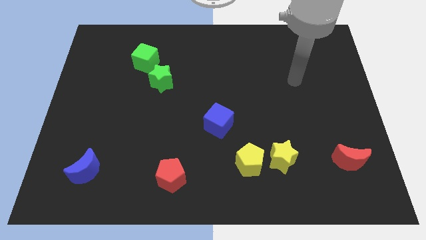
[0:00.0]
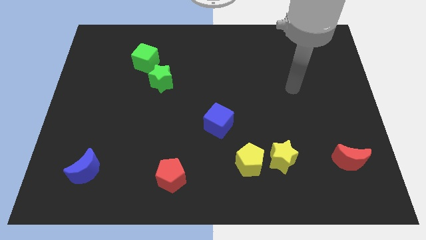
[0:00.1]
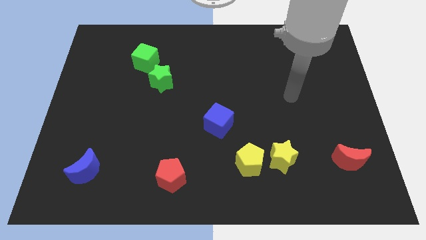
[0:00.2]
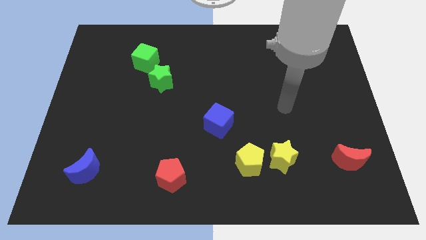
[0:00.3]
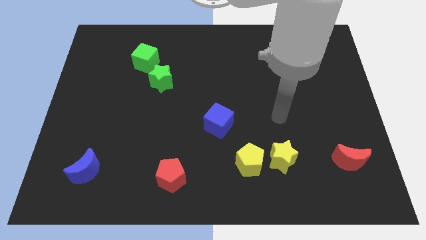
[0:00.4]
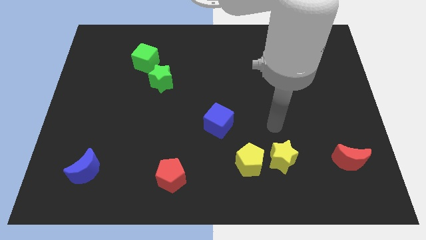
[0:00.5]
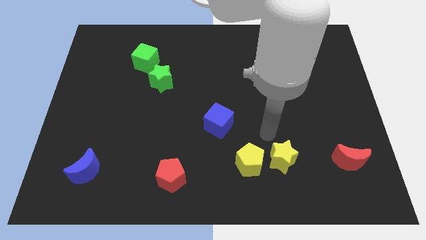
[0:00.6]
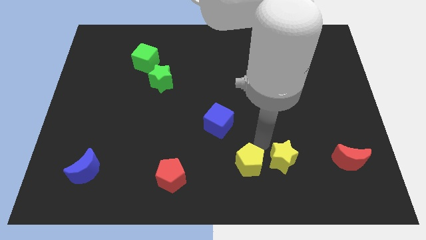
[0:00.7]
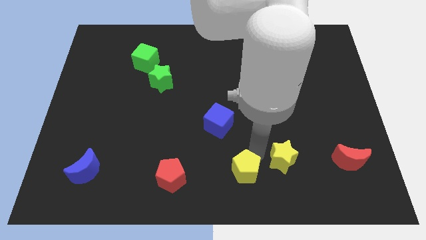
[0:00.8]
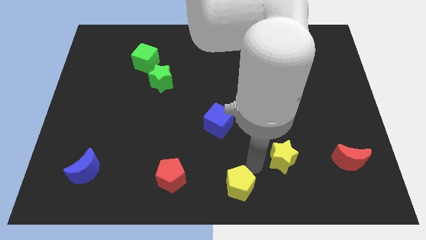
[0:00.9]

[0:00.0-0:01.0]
separate the yellow star from the yellow pentagon

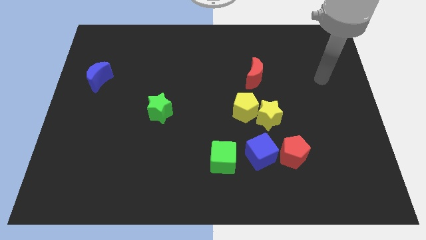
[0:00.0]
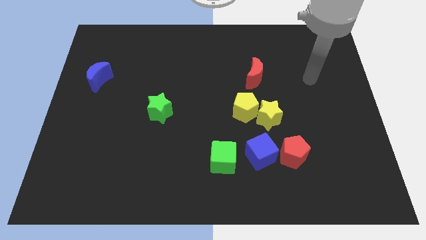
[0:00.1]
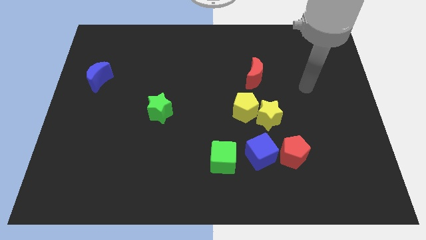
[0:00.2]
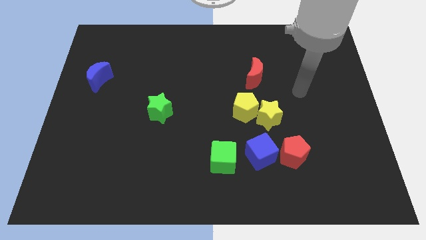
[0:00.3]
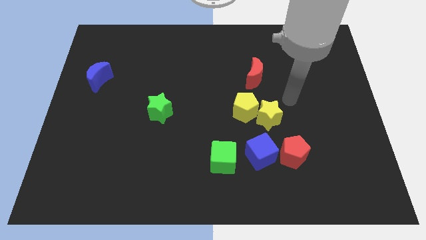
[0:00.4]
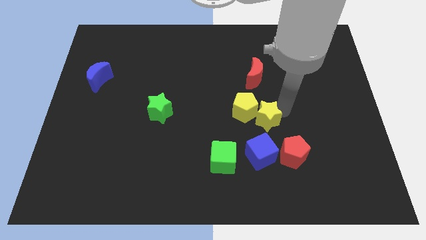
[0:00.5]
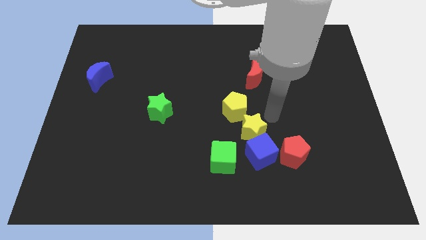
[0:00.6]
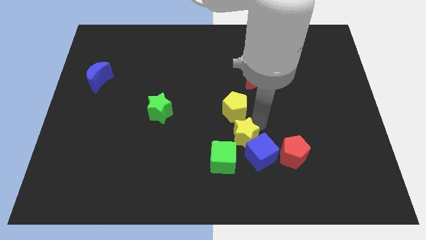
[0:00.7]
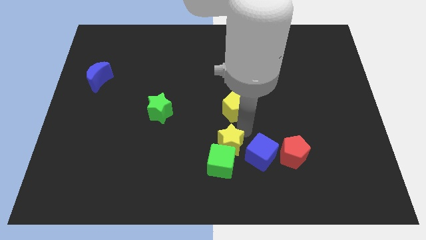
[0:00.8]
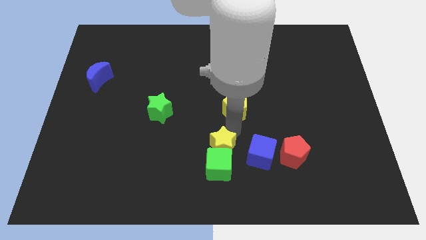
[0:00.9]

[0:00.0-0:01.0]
pull the yellow pentagon apart from the yellow star

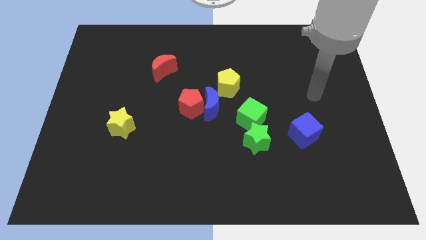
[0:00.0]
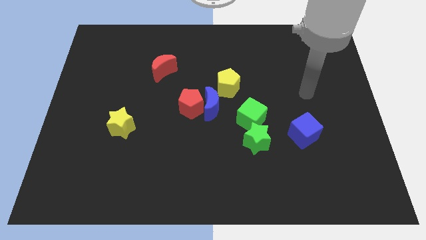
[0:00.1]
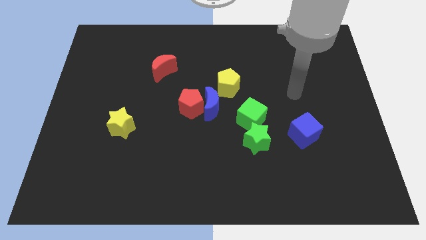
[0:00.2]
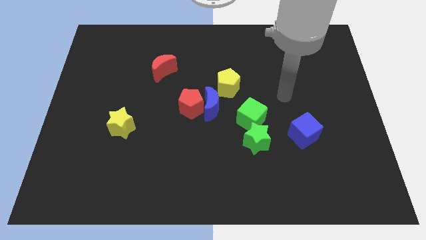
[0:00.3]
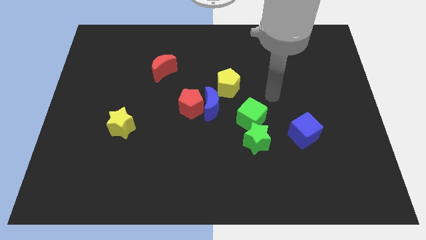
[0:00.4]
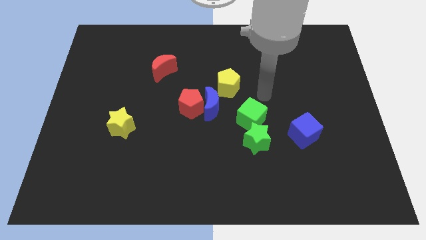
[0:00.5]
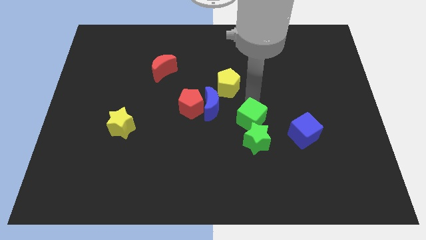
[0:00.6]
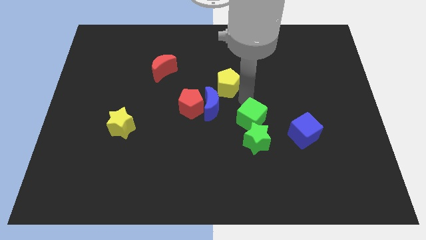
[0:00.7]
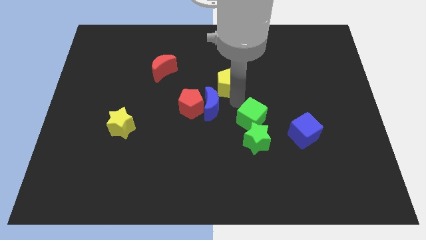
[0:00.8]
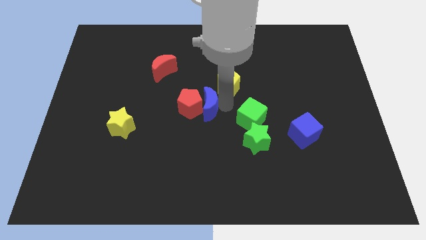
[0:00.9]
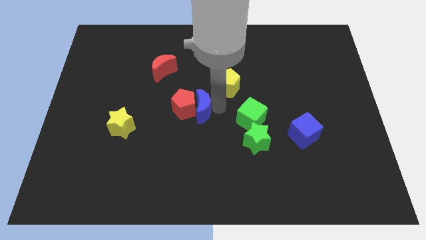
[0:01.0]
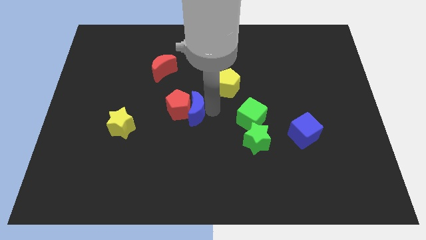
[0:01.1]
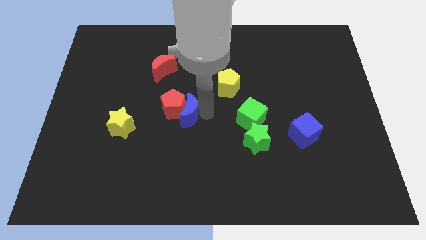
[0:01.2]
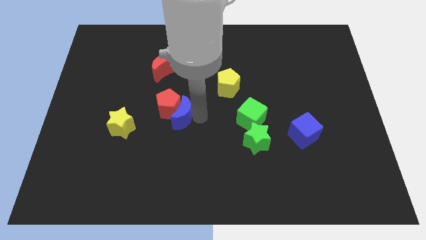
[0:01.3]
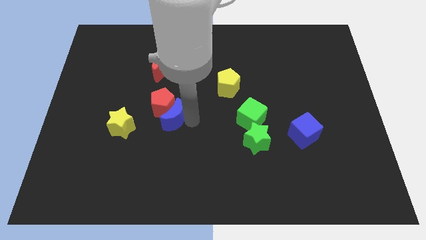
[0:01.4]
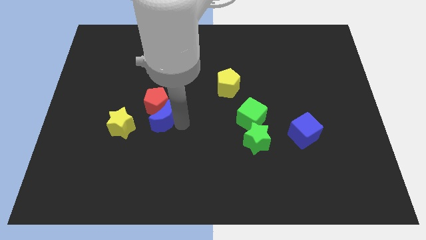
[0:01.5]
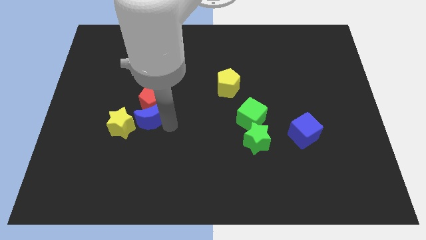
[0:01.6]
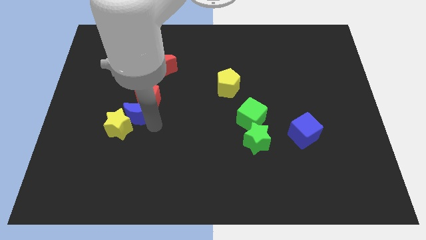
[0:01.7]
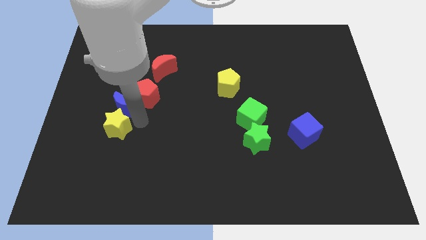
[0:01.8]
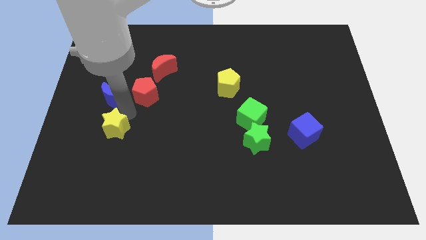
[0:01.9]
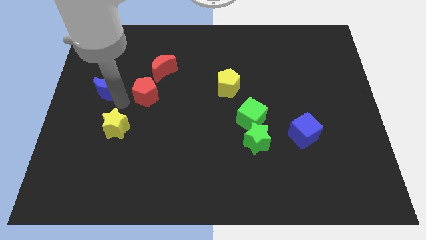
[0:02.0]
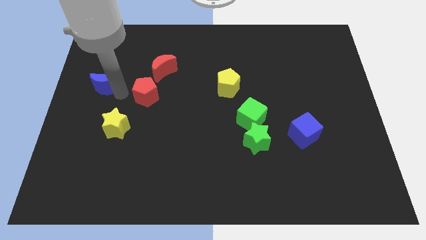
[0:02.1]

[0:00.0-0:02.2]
pull the red pentagon apart from the blue moon

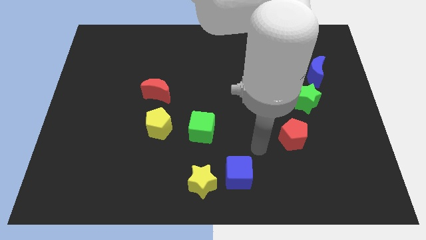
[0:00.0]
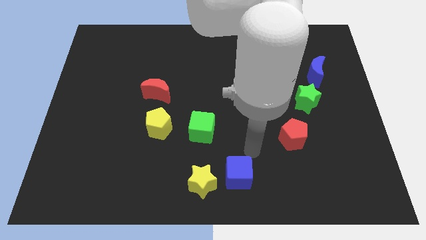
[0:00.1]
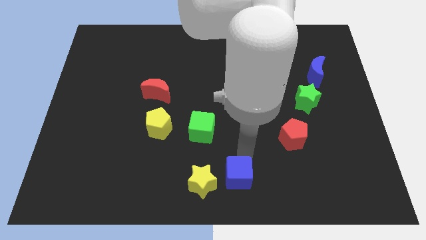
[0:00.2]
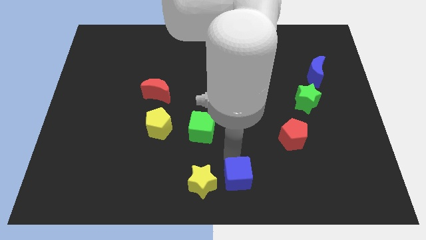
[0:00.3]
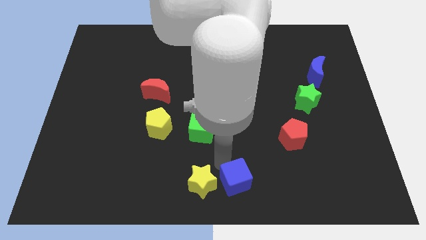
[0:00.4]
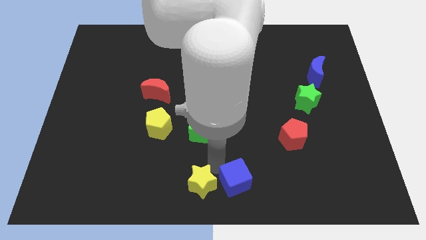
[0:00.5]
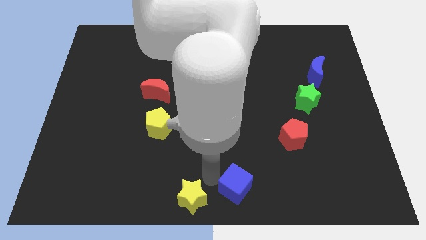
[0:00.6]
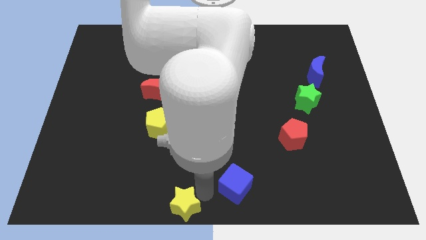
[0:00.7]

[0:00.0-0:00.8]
pull the blue cube apart from the yellow star

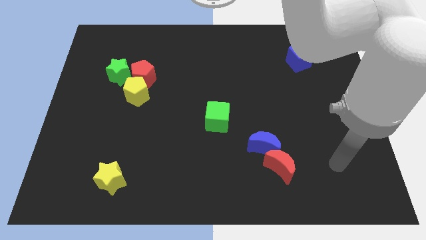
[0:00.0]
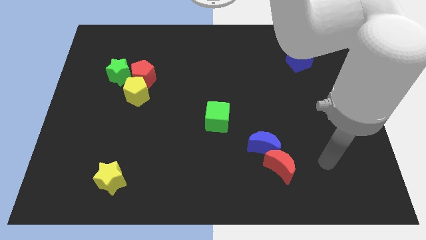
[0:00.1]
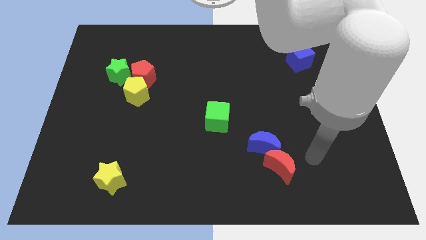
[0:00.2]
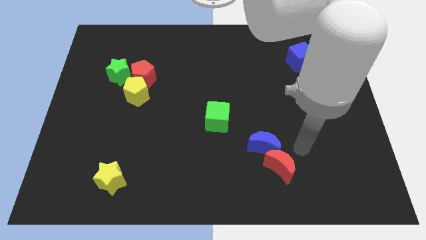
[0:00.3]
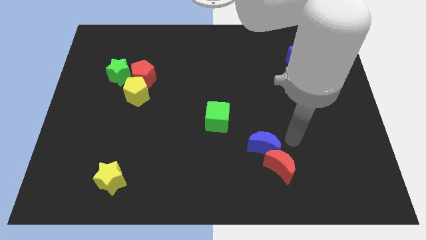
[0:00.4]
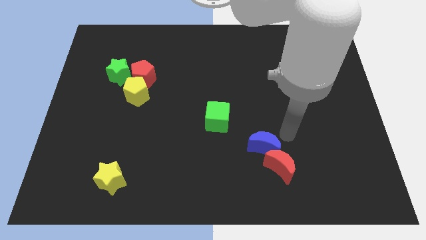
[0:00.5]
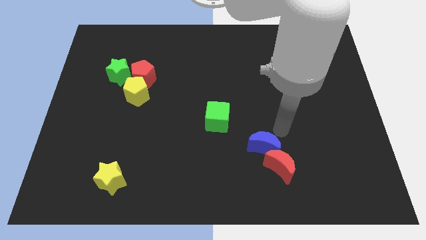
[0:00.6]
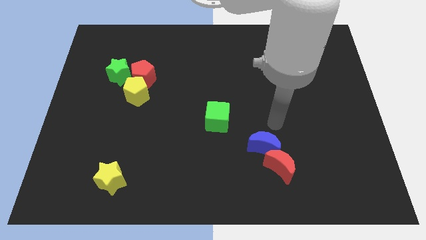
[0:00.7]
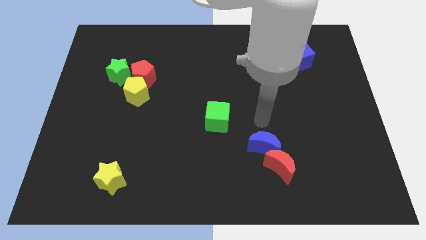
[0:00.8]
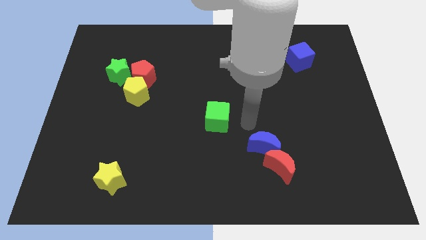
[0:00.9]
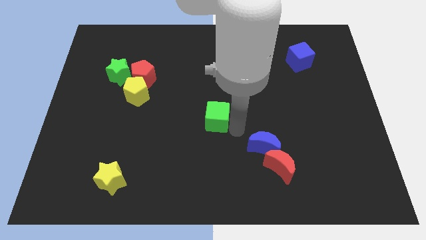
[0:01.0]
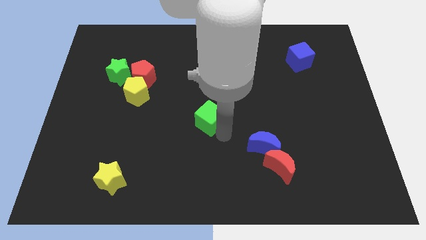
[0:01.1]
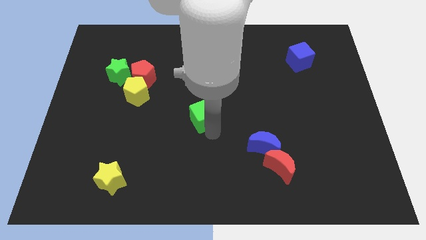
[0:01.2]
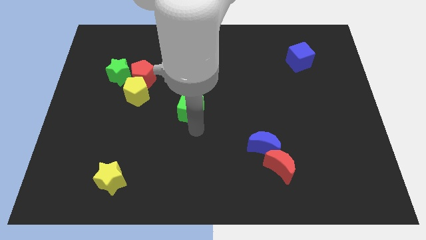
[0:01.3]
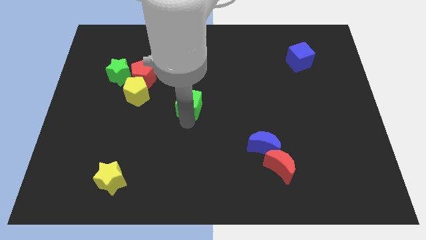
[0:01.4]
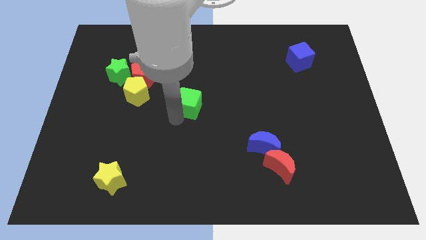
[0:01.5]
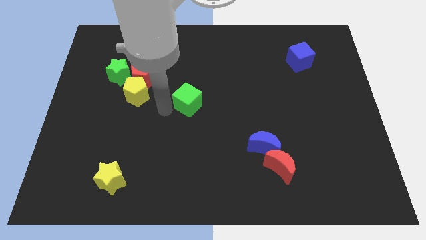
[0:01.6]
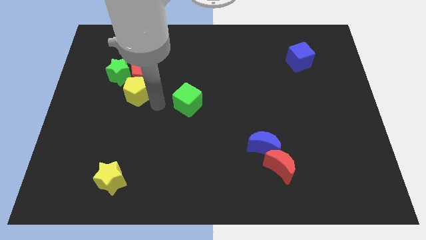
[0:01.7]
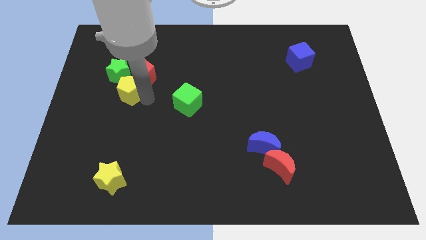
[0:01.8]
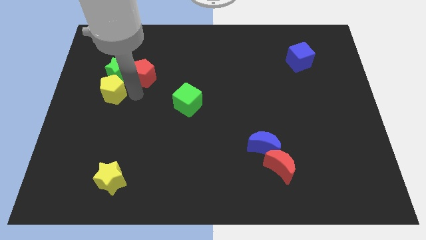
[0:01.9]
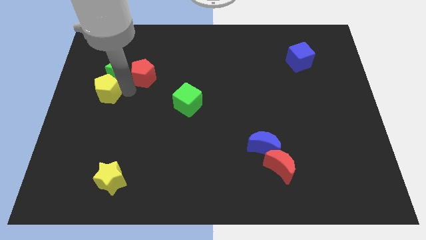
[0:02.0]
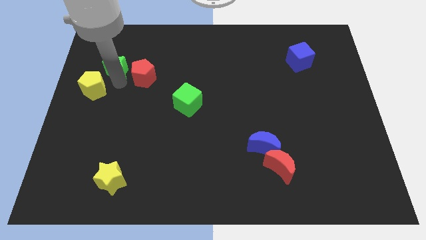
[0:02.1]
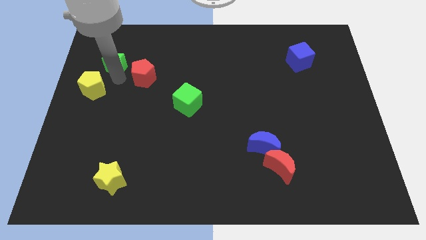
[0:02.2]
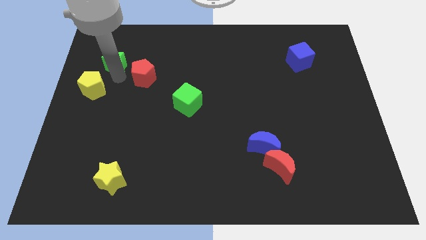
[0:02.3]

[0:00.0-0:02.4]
move the red pentagon away from the yellow pentagon and green star

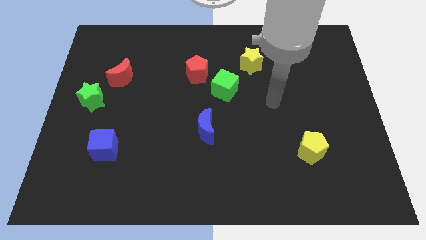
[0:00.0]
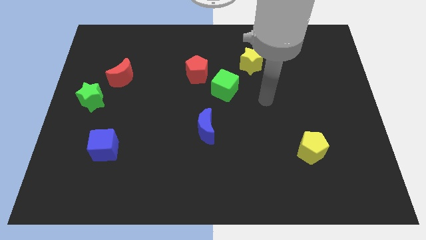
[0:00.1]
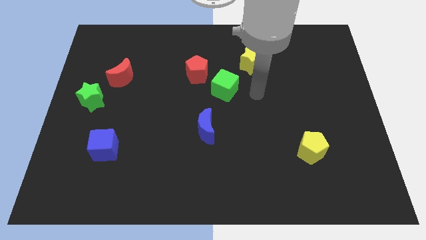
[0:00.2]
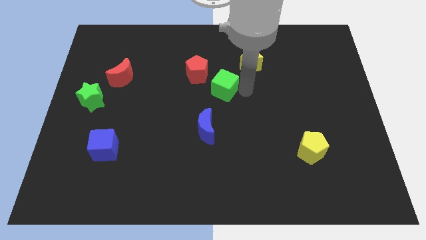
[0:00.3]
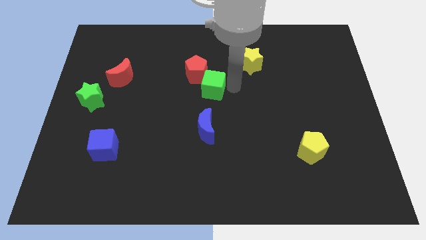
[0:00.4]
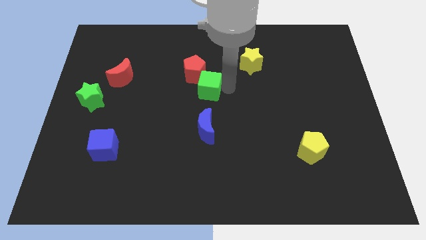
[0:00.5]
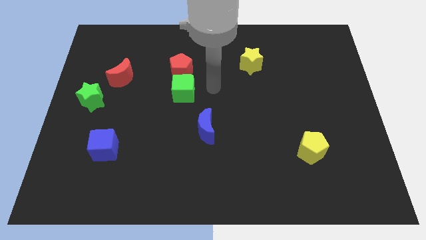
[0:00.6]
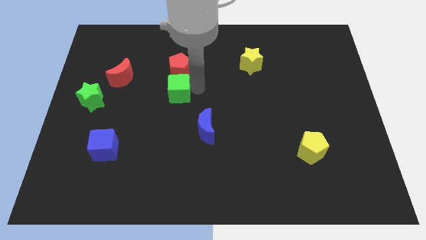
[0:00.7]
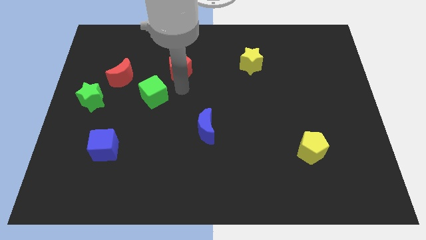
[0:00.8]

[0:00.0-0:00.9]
pull the red pentagon apart from the green cube

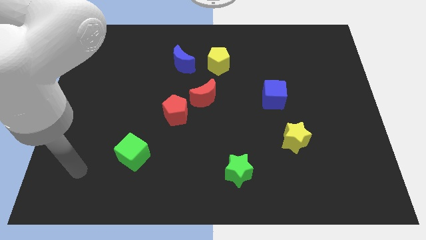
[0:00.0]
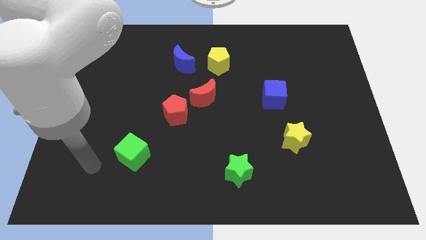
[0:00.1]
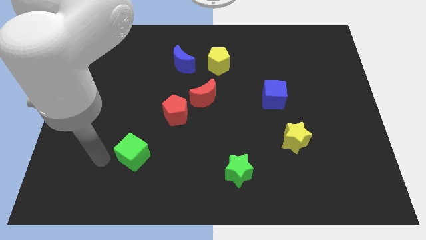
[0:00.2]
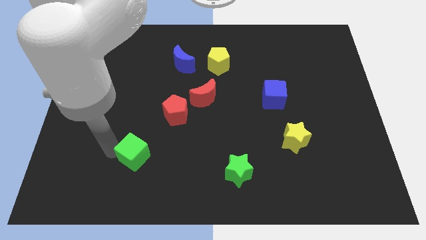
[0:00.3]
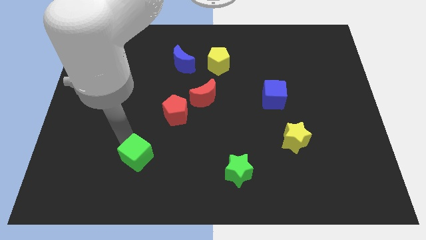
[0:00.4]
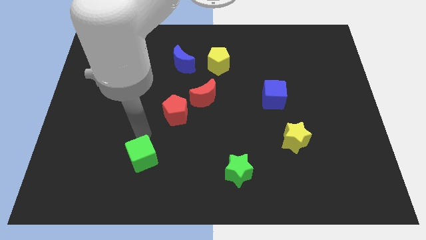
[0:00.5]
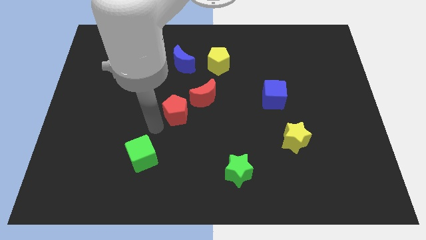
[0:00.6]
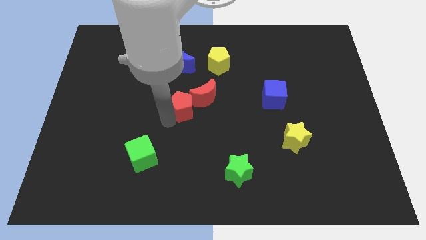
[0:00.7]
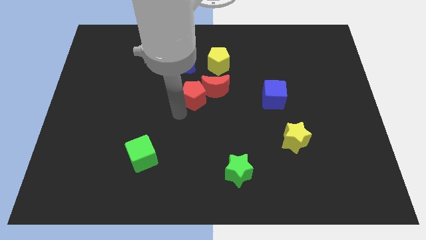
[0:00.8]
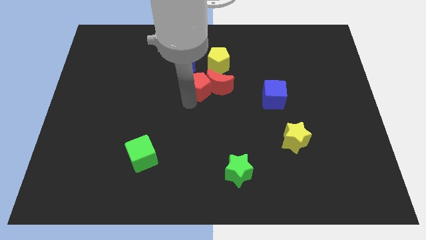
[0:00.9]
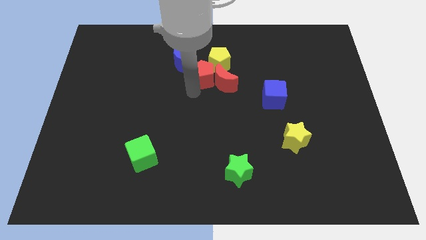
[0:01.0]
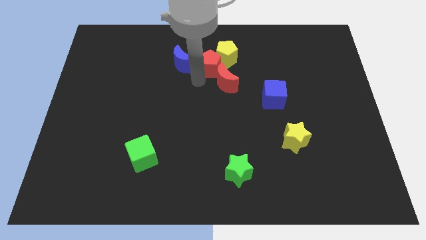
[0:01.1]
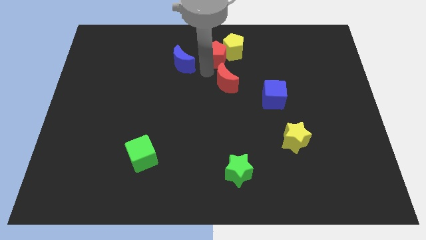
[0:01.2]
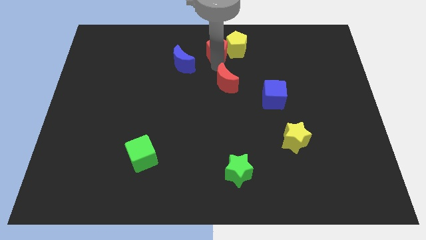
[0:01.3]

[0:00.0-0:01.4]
pull the red moon apart from the red pentagon
